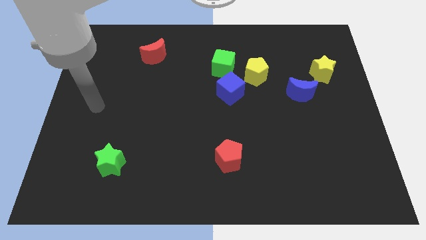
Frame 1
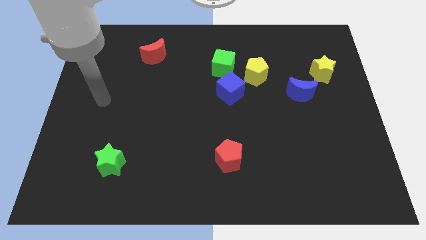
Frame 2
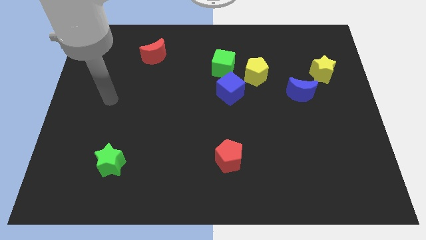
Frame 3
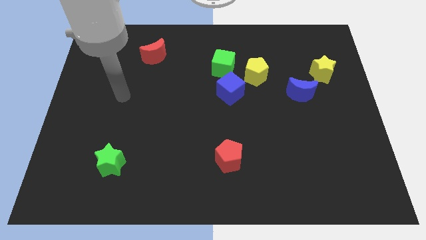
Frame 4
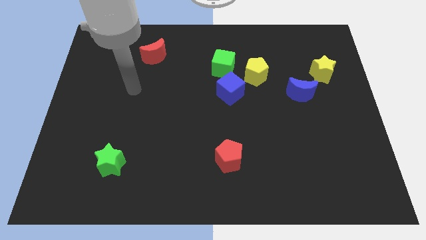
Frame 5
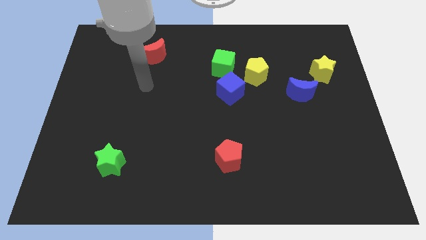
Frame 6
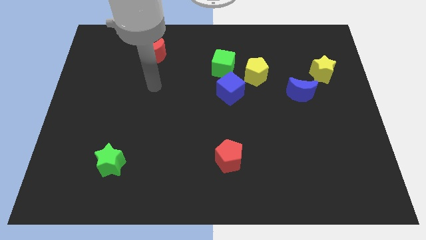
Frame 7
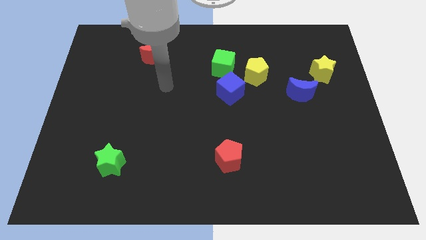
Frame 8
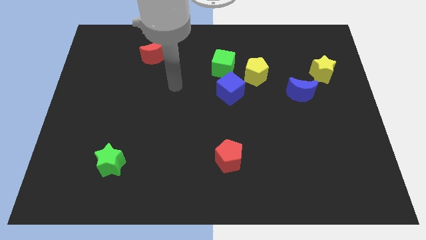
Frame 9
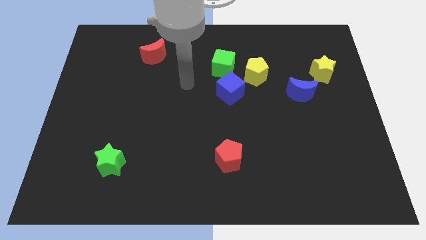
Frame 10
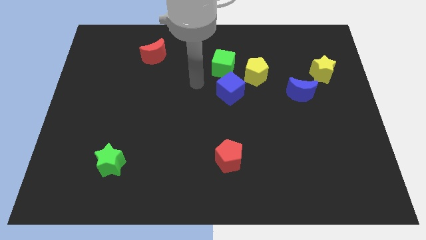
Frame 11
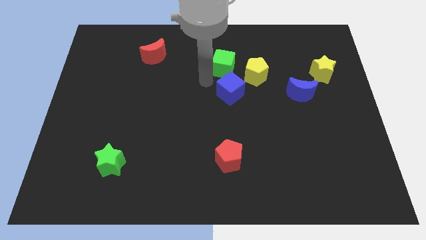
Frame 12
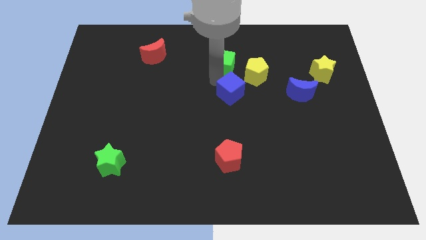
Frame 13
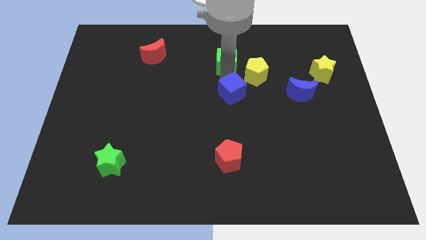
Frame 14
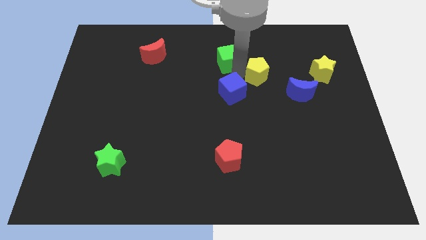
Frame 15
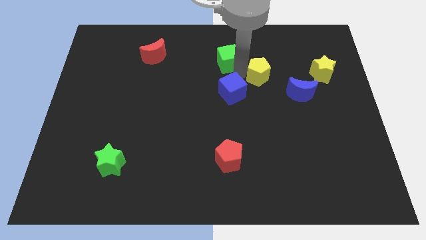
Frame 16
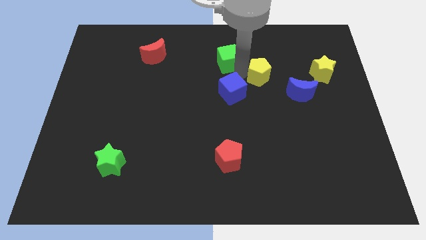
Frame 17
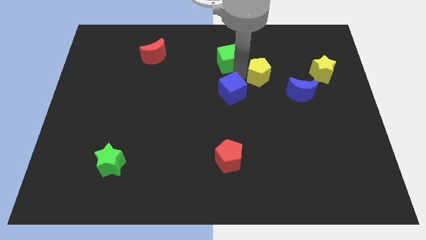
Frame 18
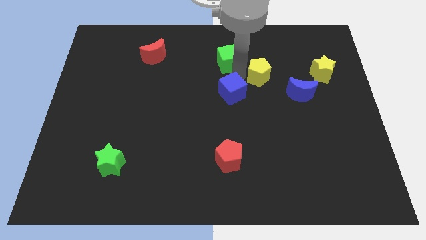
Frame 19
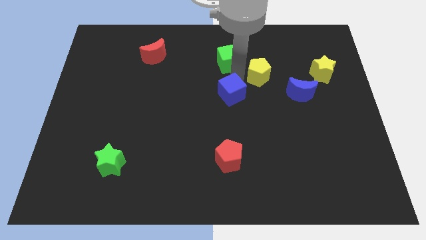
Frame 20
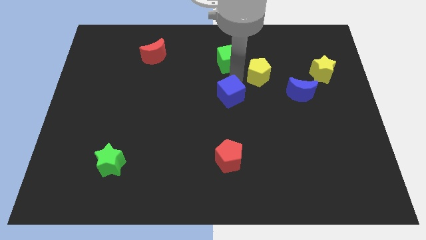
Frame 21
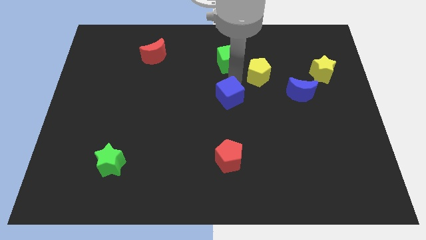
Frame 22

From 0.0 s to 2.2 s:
pull the blue cube apart from the green cube and yellow pentagon

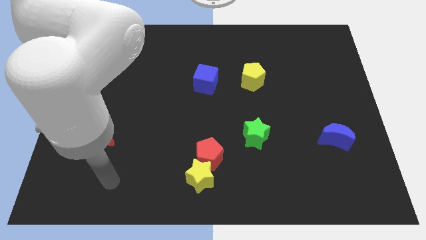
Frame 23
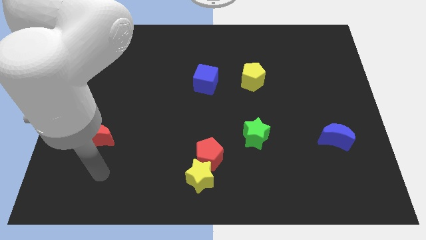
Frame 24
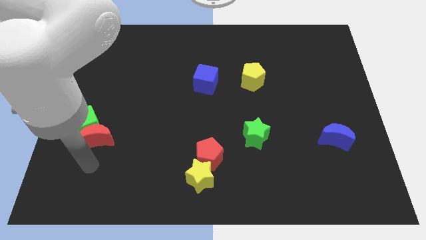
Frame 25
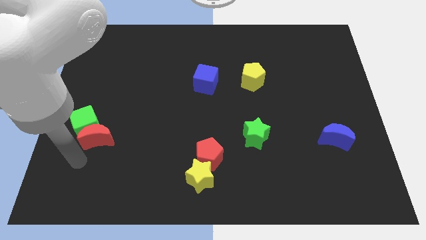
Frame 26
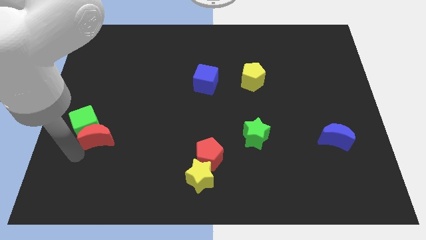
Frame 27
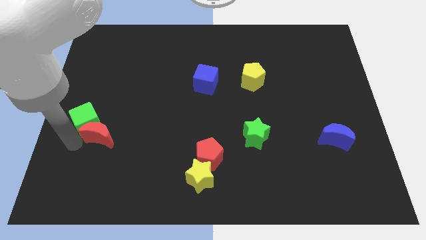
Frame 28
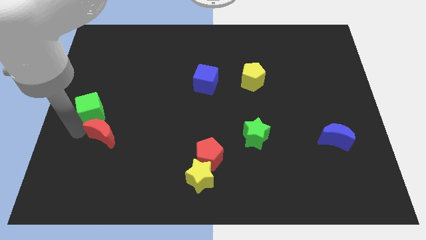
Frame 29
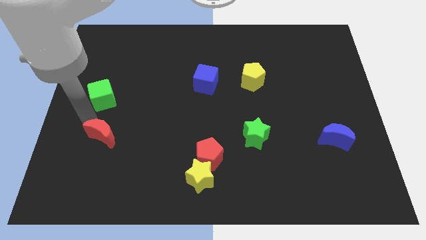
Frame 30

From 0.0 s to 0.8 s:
pull the red moon apart from the green cube

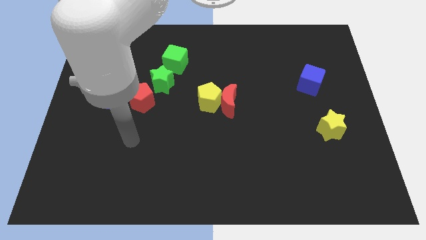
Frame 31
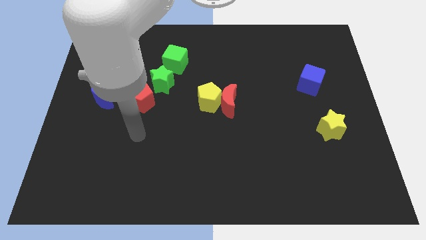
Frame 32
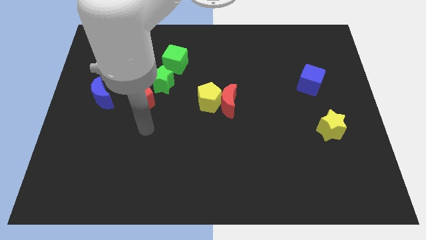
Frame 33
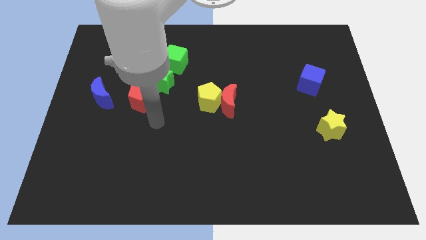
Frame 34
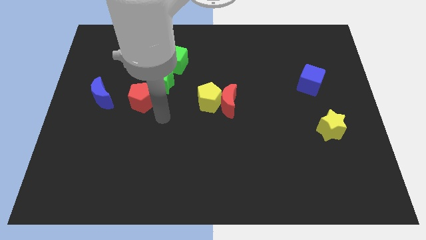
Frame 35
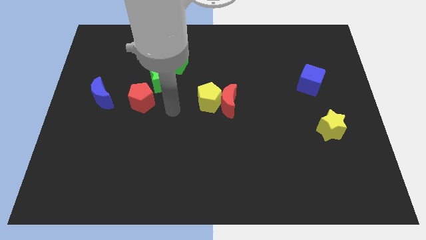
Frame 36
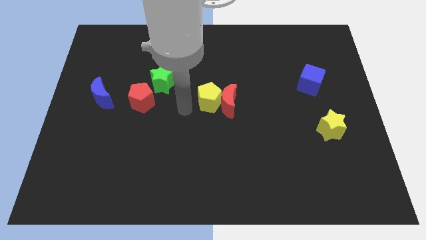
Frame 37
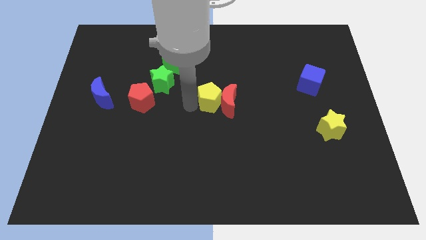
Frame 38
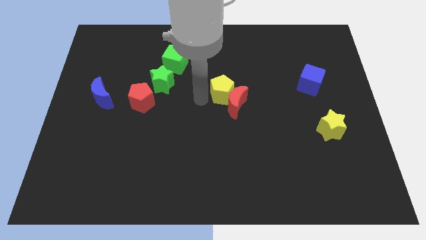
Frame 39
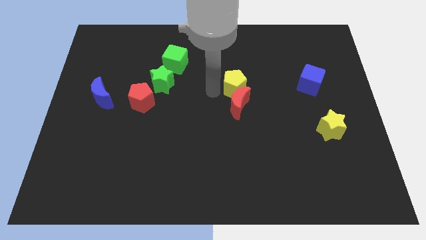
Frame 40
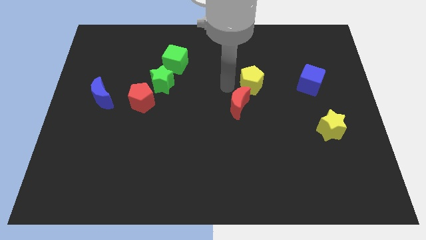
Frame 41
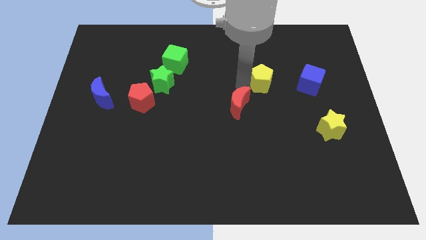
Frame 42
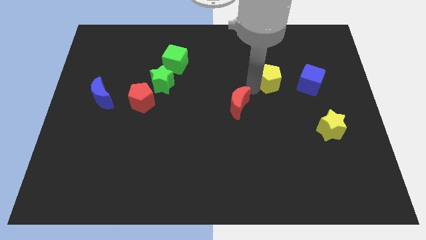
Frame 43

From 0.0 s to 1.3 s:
separate the red moon from the yellow pentagon

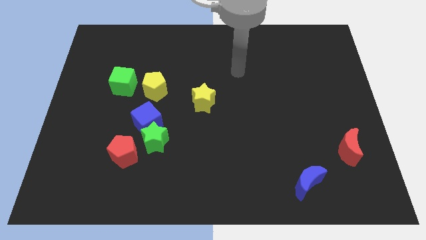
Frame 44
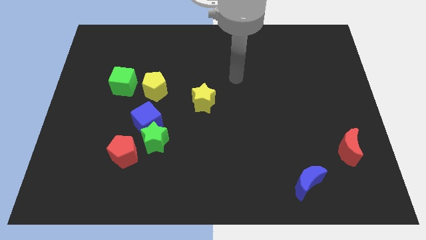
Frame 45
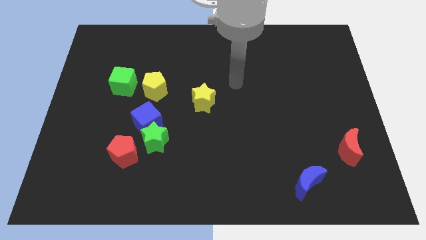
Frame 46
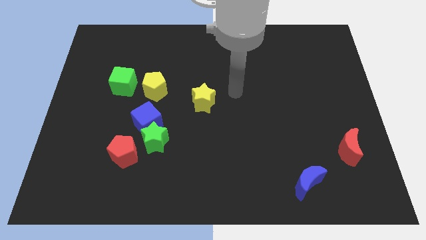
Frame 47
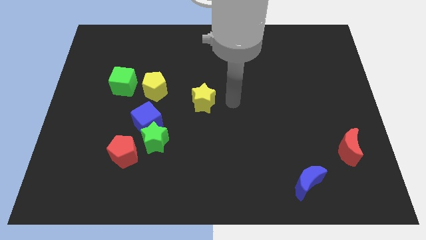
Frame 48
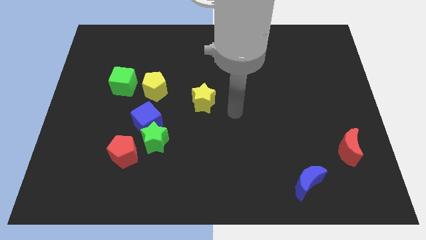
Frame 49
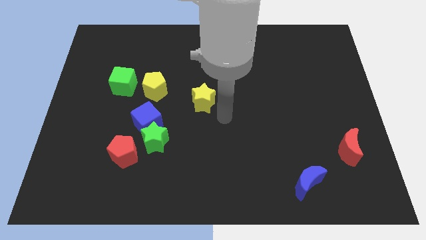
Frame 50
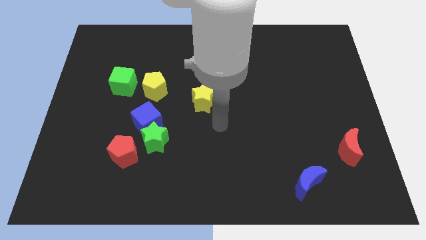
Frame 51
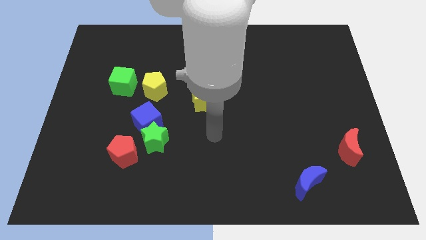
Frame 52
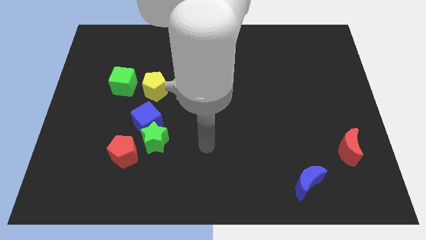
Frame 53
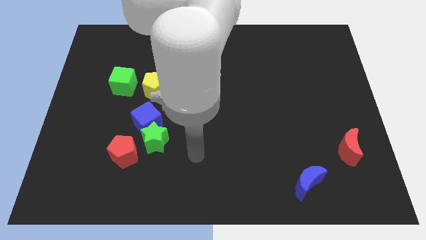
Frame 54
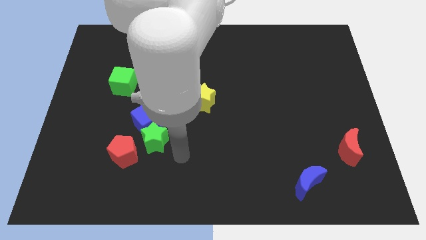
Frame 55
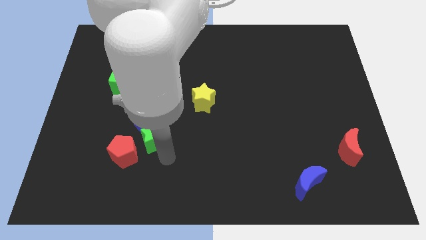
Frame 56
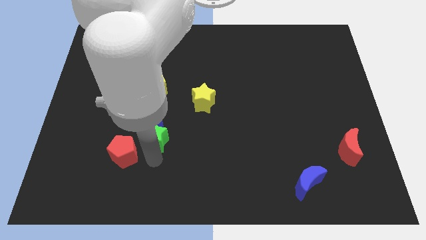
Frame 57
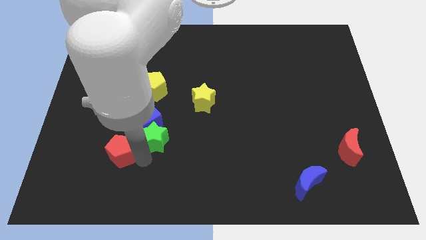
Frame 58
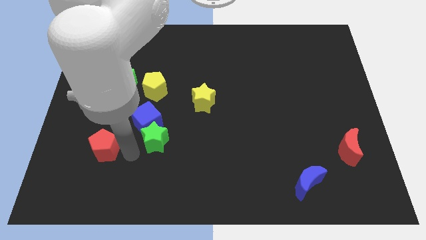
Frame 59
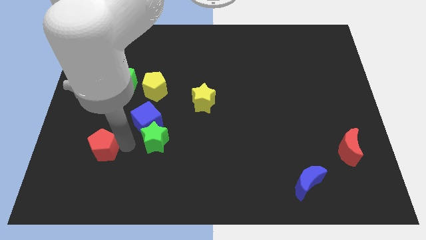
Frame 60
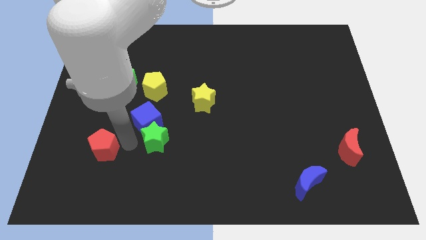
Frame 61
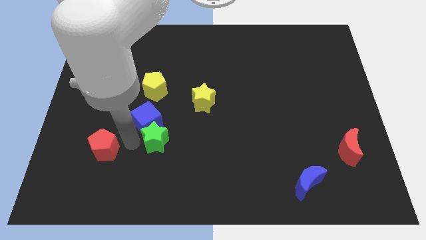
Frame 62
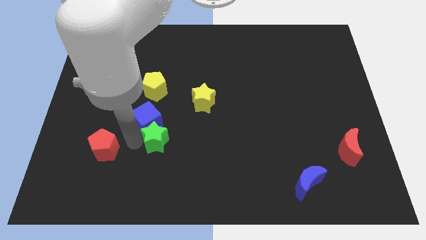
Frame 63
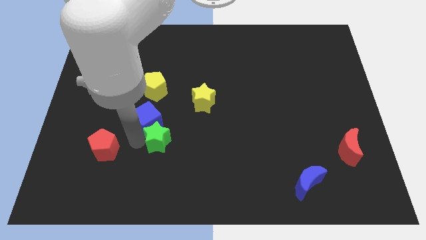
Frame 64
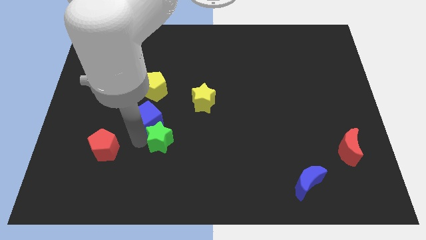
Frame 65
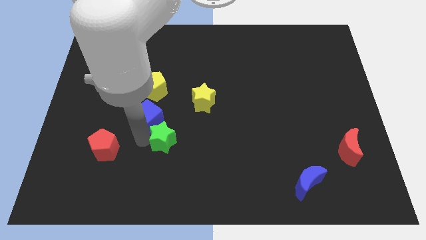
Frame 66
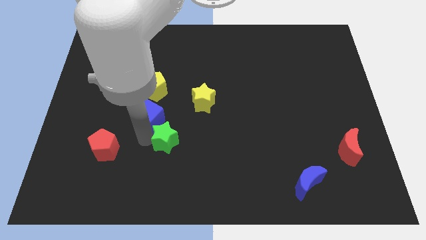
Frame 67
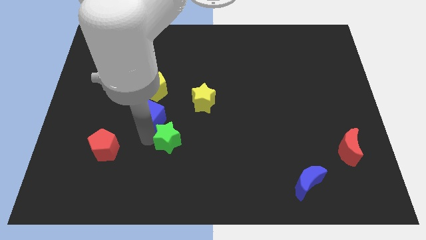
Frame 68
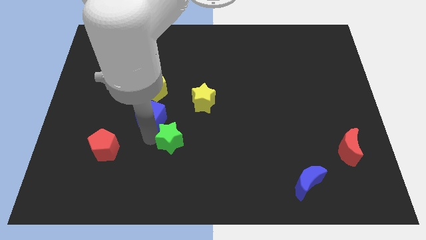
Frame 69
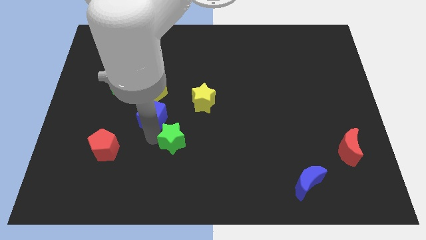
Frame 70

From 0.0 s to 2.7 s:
move the green star away from the blue cube and red pentagon

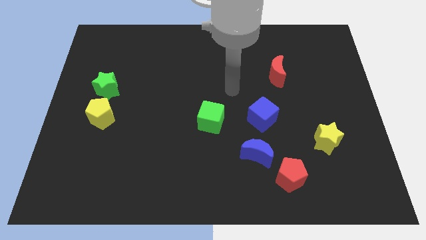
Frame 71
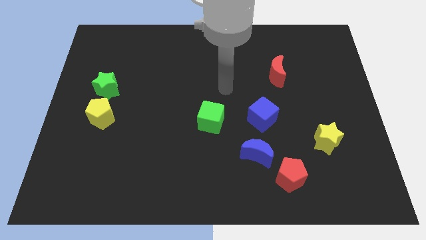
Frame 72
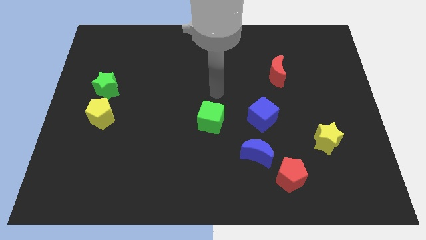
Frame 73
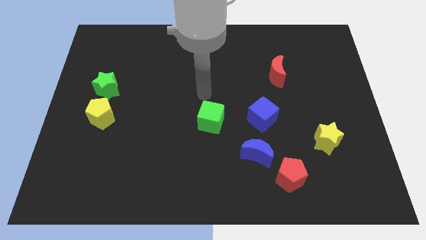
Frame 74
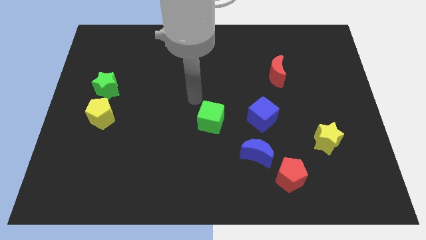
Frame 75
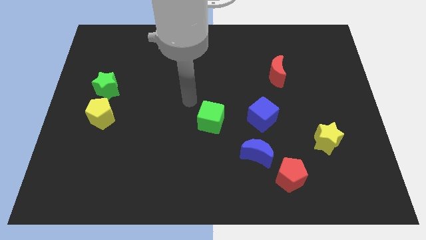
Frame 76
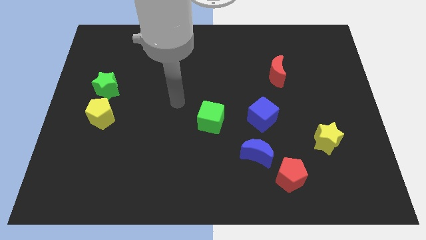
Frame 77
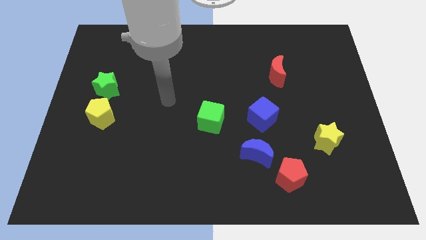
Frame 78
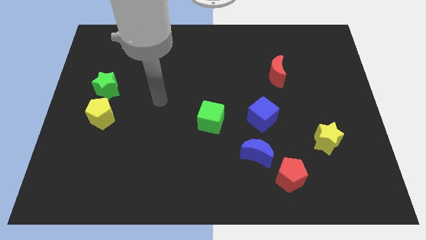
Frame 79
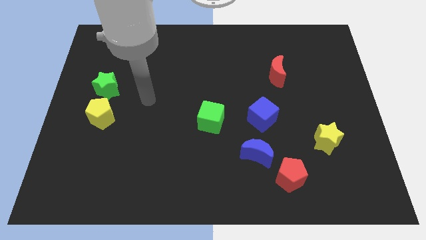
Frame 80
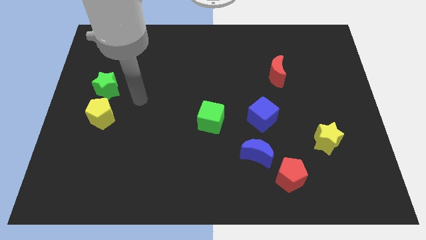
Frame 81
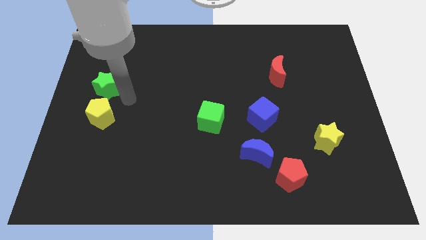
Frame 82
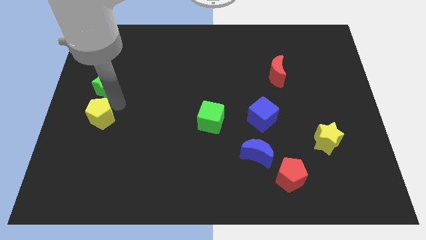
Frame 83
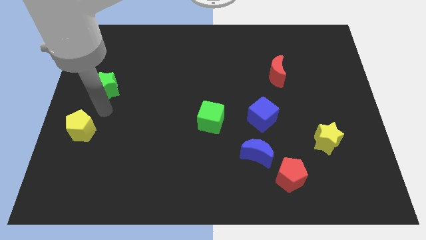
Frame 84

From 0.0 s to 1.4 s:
pull the green star apart from the yellow pentagon

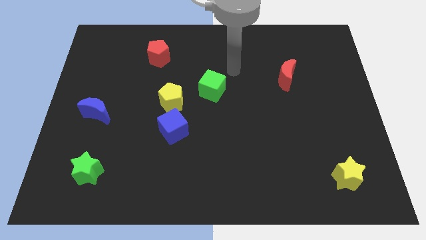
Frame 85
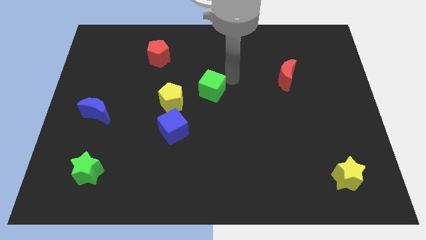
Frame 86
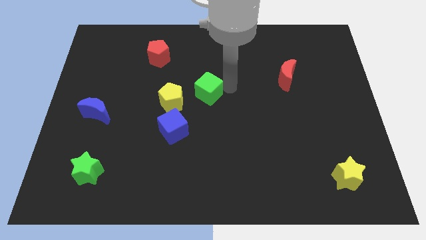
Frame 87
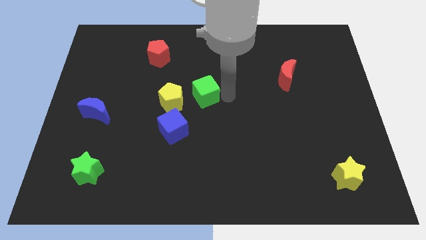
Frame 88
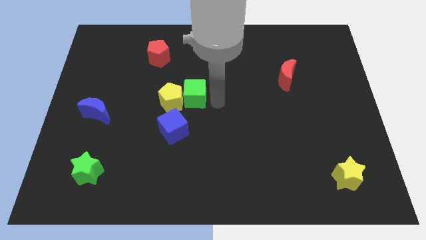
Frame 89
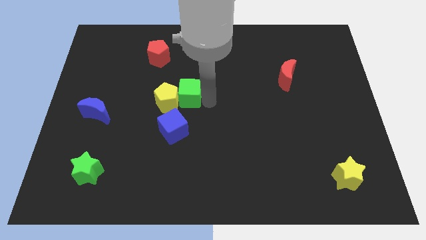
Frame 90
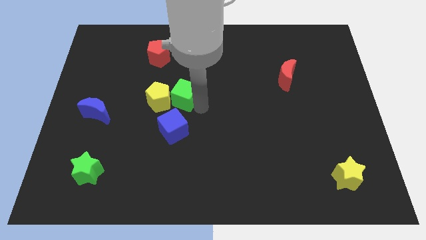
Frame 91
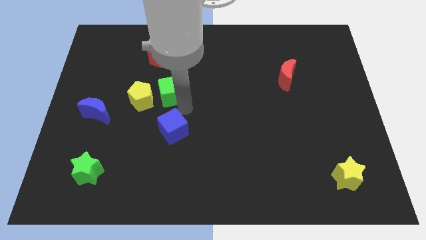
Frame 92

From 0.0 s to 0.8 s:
separate the blue cube from the yellow pentagon

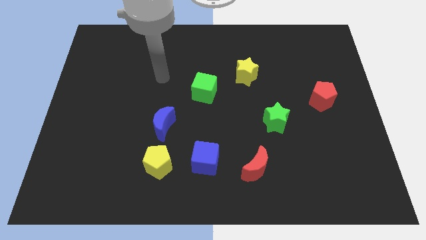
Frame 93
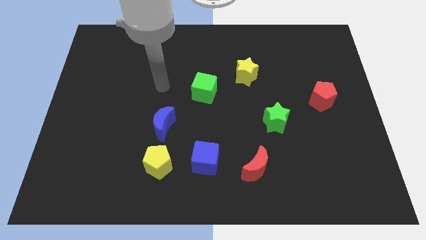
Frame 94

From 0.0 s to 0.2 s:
move the blue moon away from the yellow pentagon
